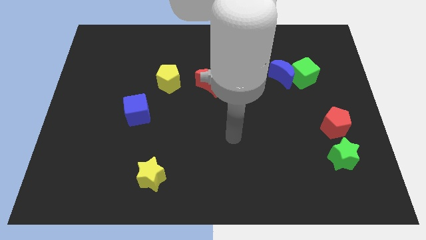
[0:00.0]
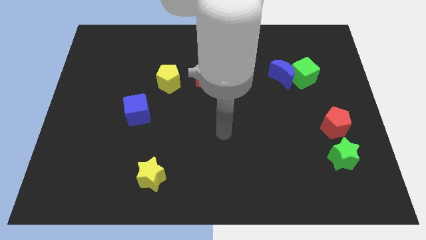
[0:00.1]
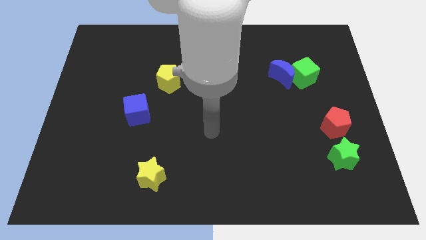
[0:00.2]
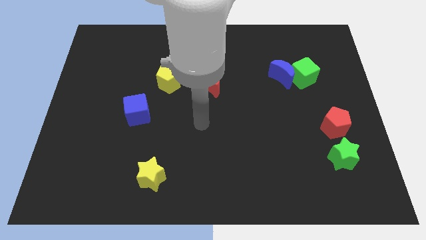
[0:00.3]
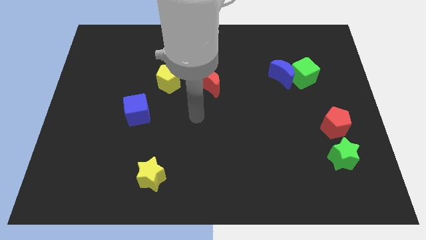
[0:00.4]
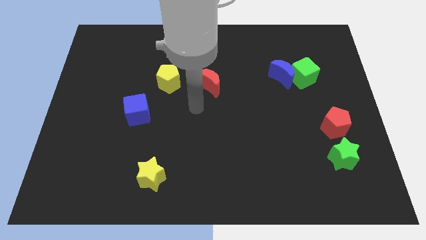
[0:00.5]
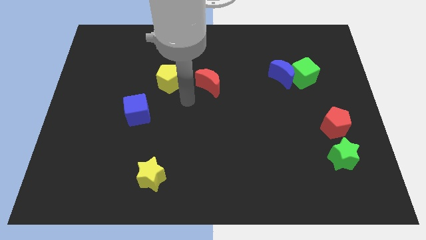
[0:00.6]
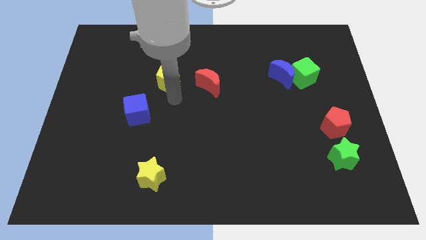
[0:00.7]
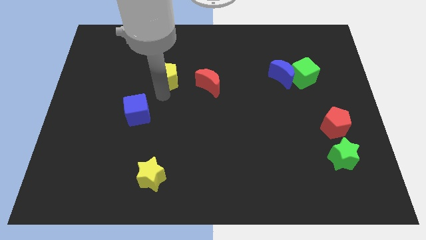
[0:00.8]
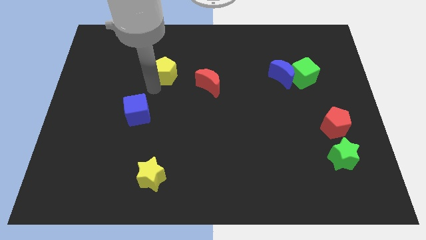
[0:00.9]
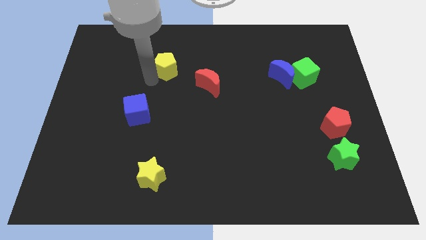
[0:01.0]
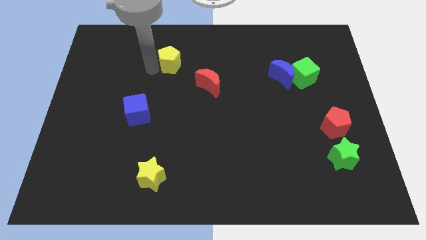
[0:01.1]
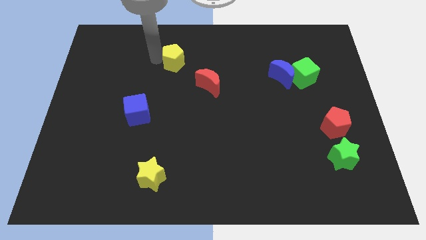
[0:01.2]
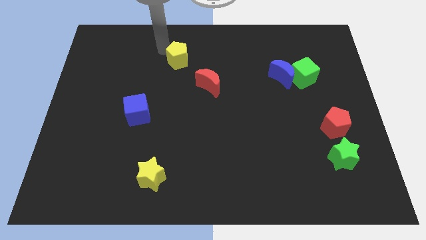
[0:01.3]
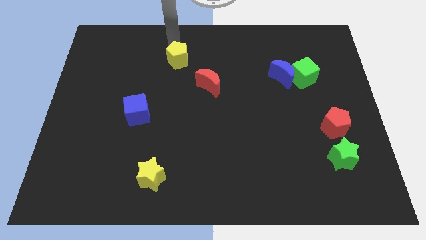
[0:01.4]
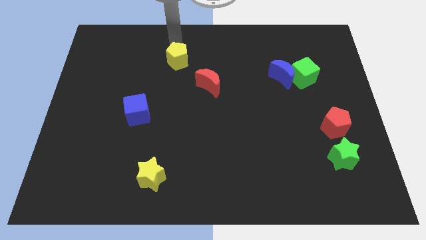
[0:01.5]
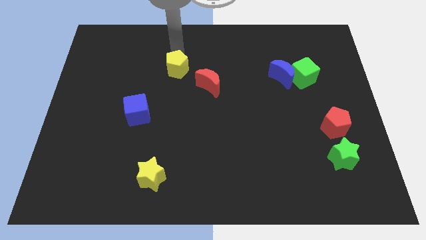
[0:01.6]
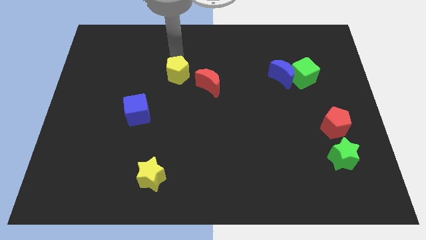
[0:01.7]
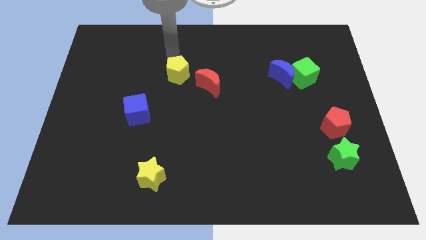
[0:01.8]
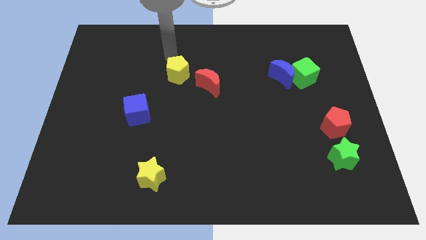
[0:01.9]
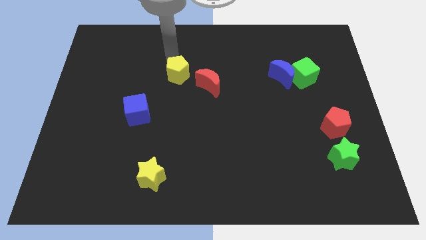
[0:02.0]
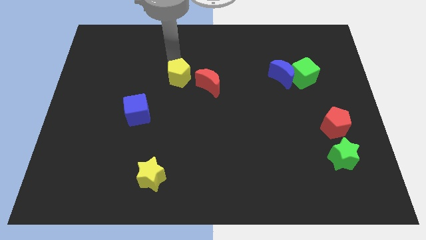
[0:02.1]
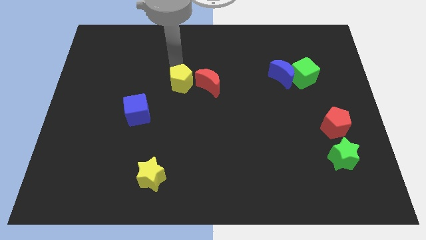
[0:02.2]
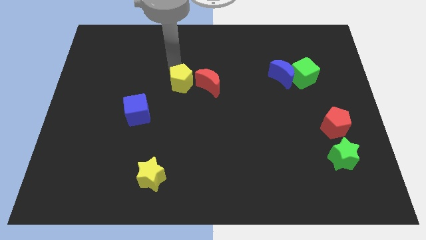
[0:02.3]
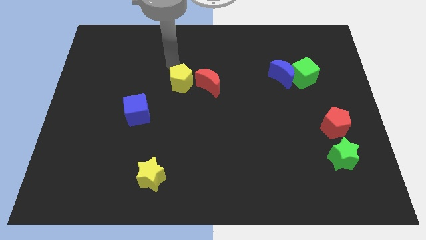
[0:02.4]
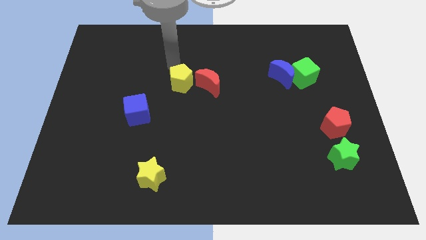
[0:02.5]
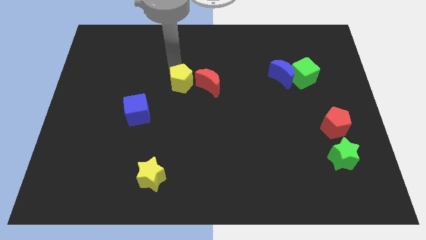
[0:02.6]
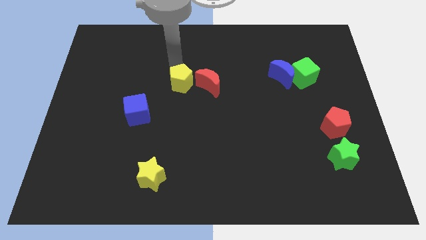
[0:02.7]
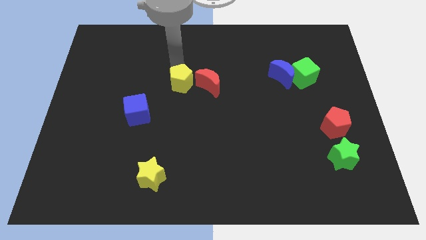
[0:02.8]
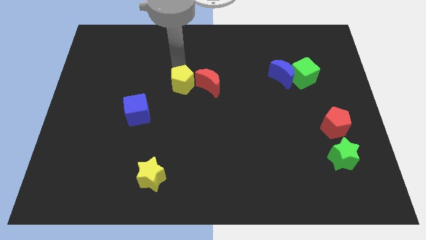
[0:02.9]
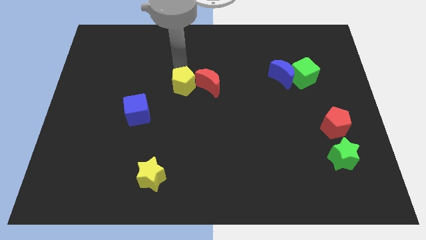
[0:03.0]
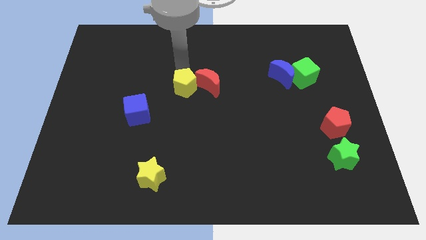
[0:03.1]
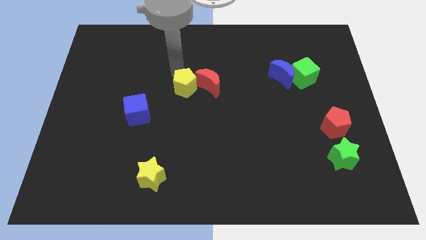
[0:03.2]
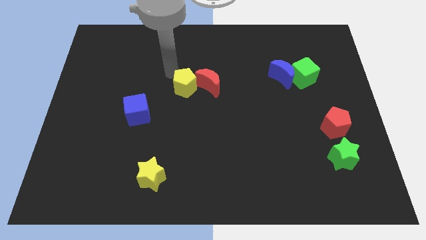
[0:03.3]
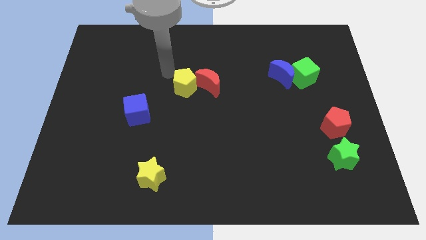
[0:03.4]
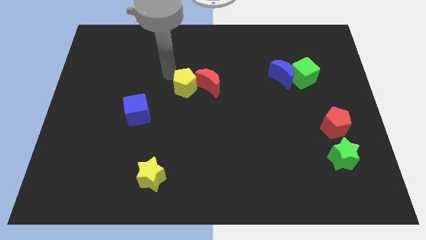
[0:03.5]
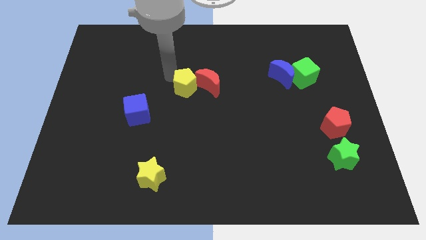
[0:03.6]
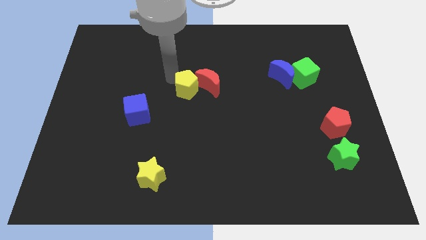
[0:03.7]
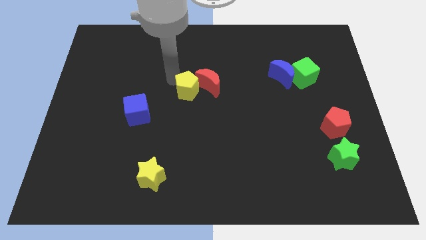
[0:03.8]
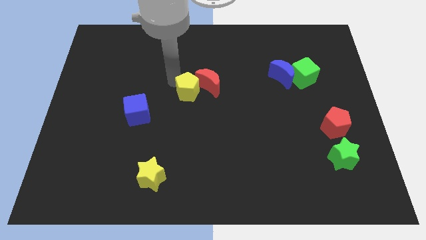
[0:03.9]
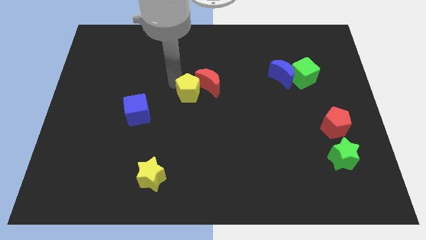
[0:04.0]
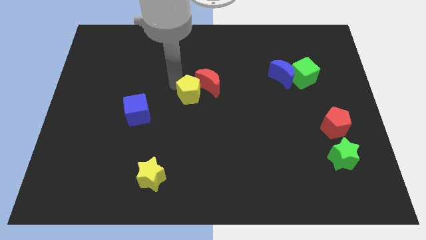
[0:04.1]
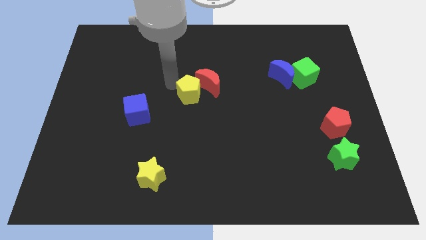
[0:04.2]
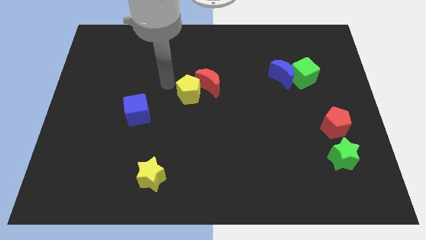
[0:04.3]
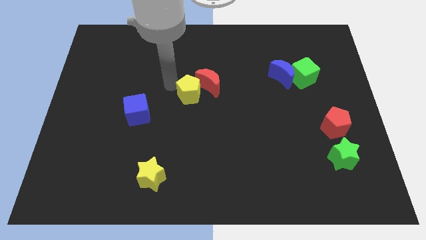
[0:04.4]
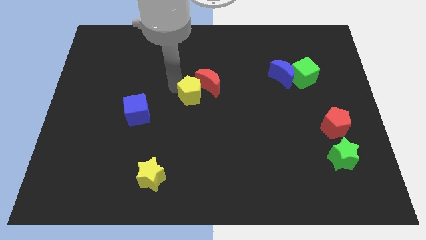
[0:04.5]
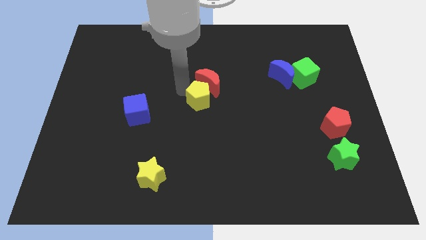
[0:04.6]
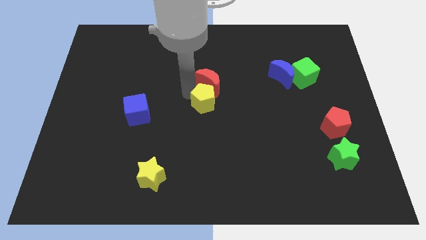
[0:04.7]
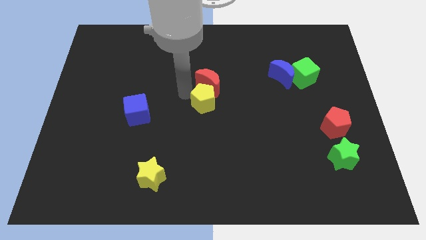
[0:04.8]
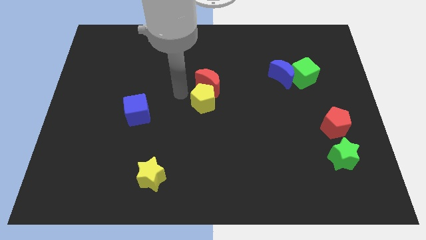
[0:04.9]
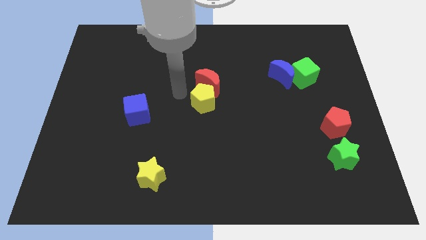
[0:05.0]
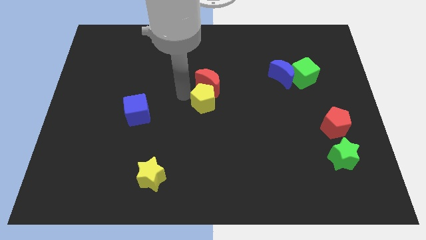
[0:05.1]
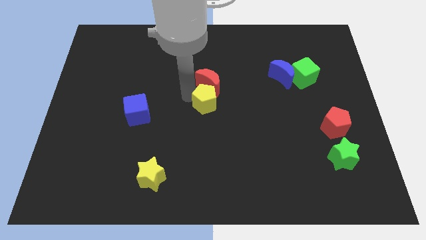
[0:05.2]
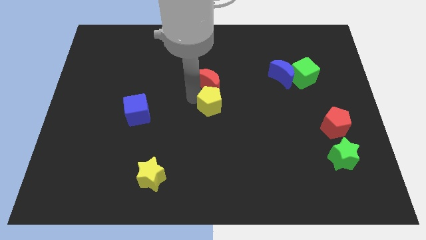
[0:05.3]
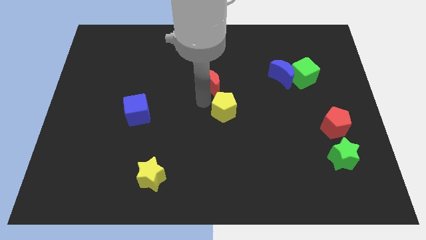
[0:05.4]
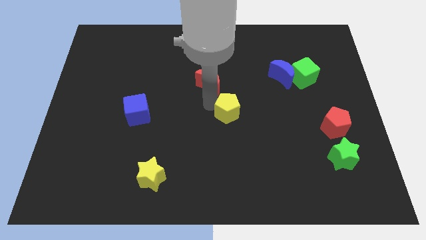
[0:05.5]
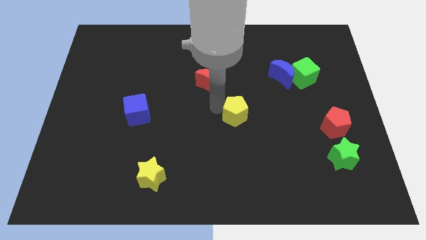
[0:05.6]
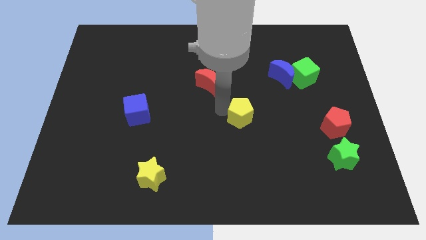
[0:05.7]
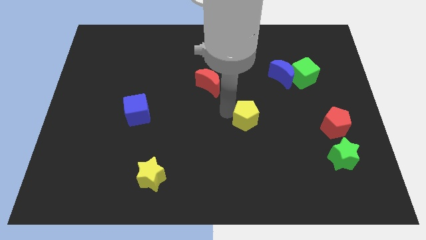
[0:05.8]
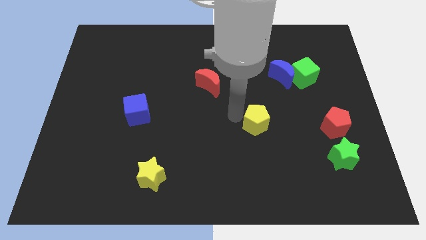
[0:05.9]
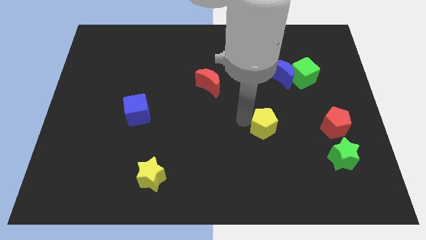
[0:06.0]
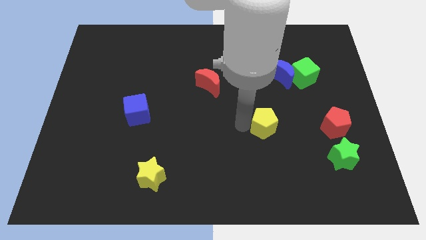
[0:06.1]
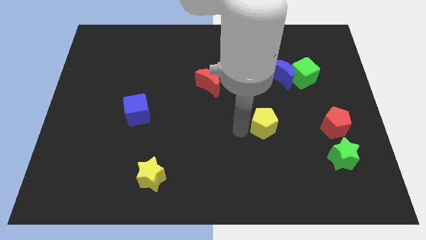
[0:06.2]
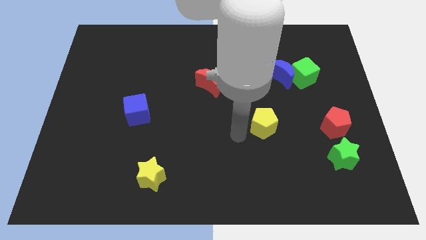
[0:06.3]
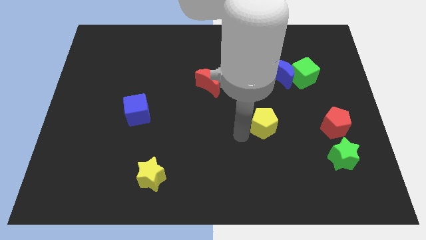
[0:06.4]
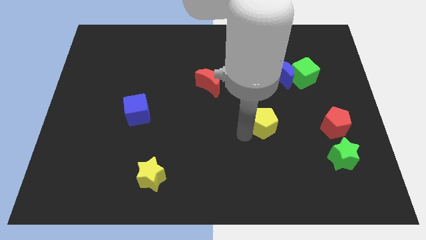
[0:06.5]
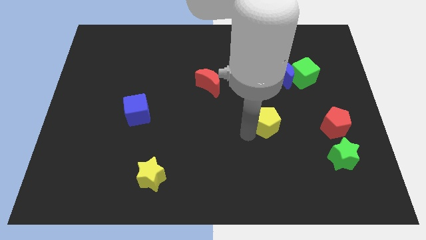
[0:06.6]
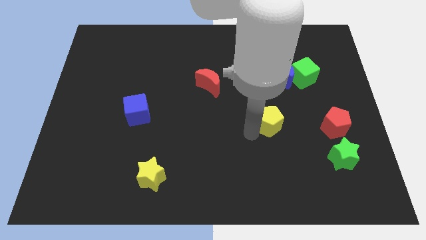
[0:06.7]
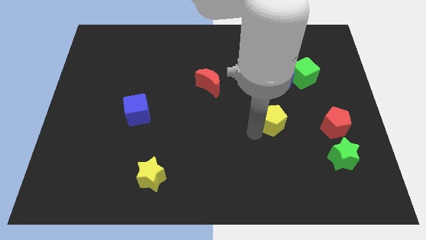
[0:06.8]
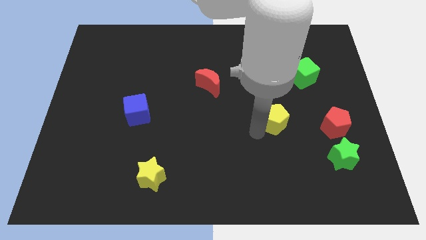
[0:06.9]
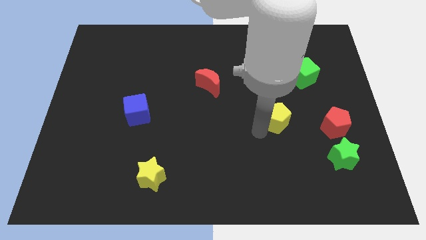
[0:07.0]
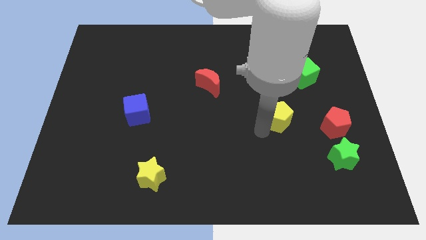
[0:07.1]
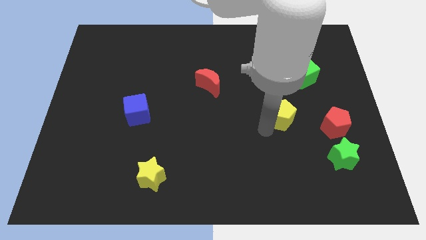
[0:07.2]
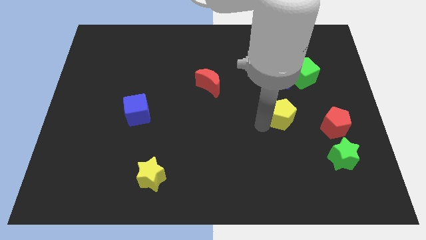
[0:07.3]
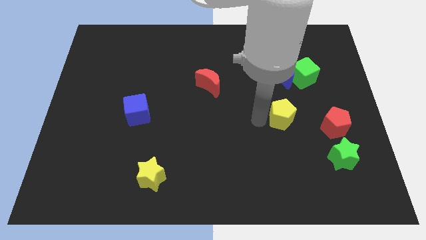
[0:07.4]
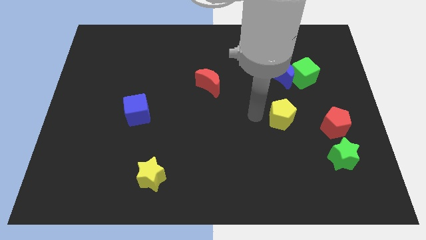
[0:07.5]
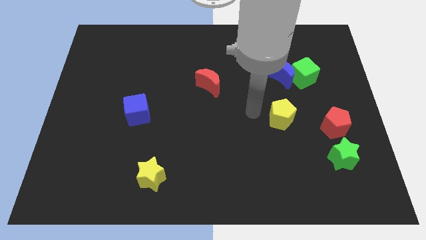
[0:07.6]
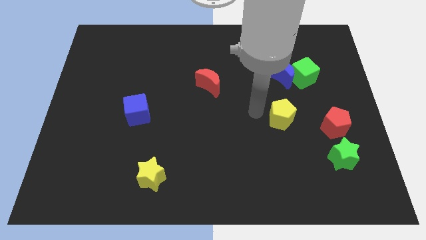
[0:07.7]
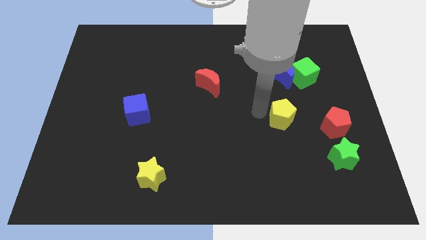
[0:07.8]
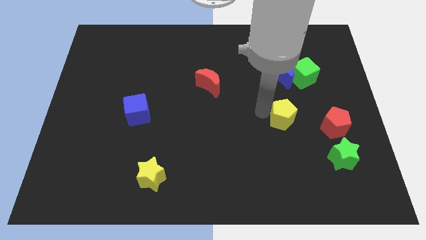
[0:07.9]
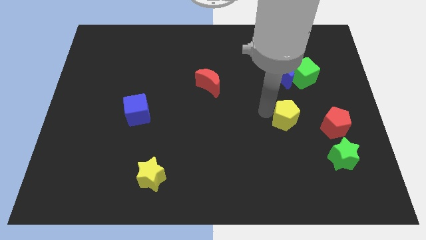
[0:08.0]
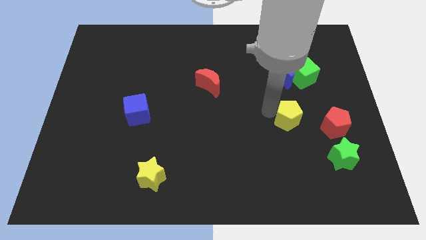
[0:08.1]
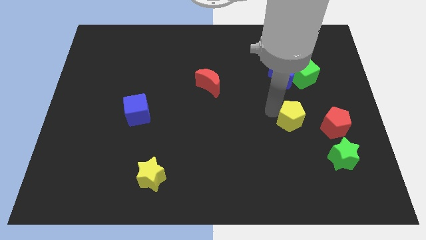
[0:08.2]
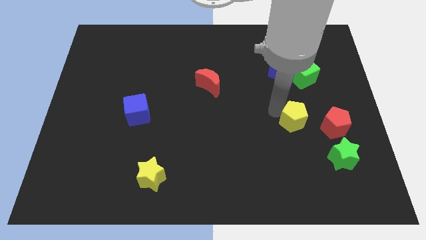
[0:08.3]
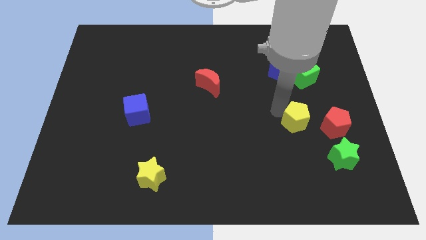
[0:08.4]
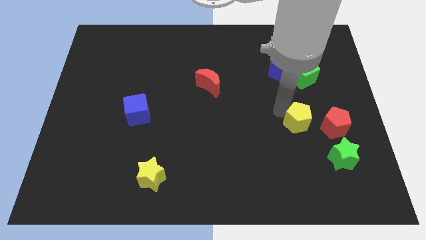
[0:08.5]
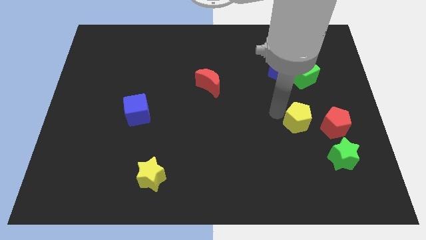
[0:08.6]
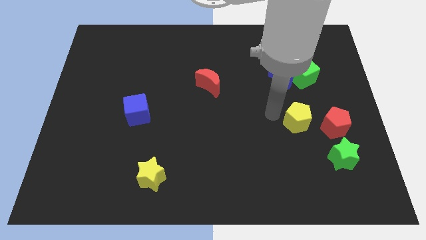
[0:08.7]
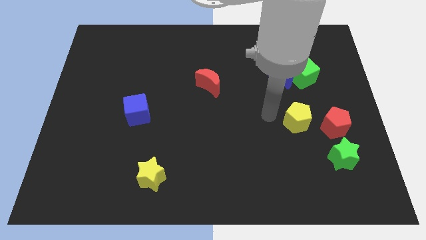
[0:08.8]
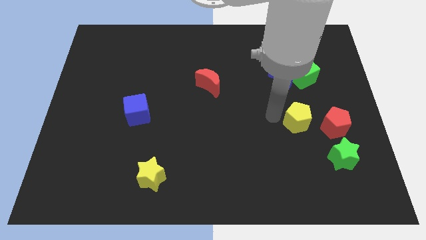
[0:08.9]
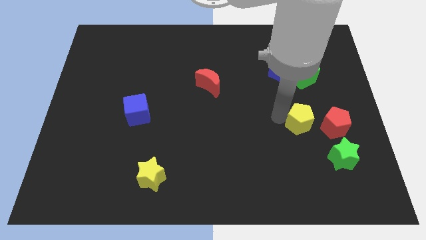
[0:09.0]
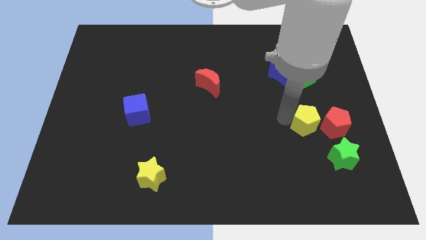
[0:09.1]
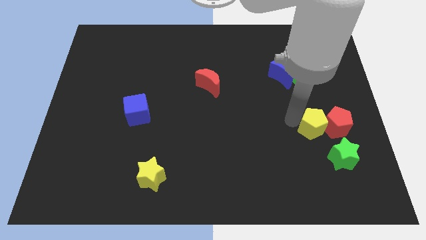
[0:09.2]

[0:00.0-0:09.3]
slide the yellow pentagon to the red pentagon
